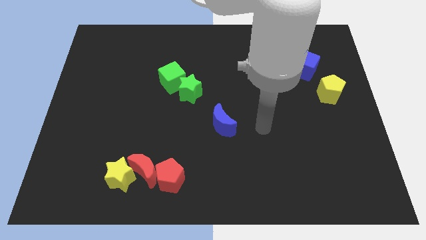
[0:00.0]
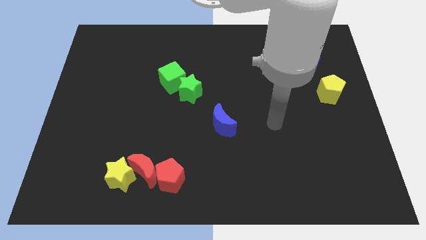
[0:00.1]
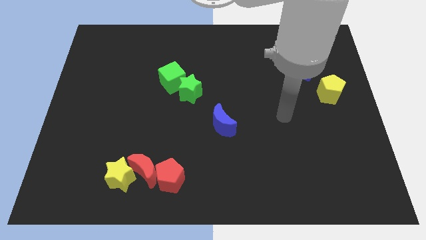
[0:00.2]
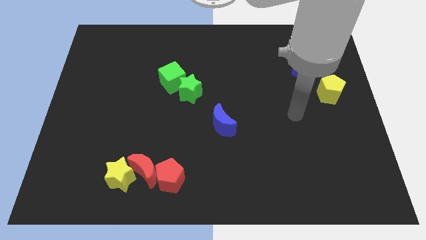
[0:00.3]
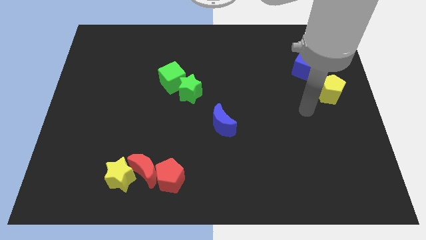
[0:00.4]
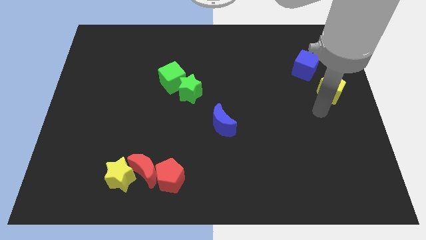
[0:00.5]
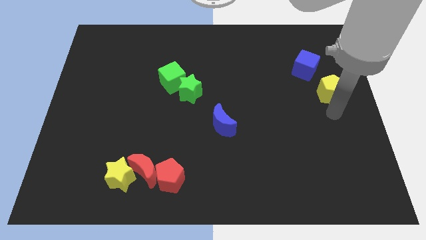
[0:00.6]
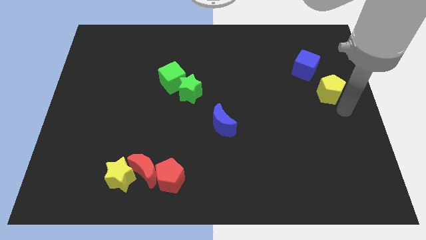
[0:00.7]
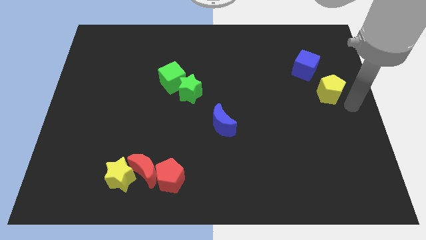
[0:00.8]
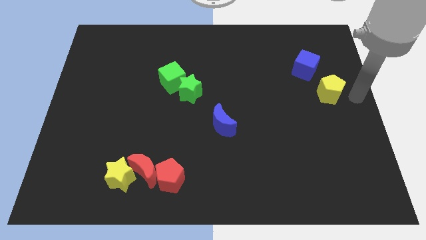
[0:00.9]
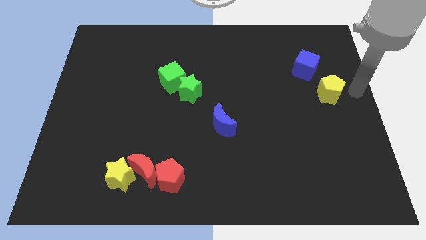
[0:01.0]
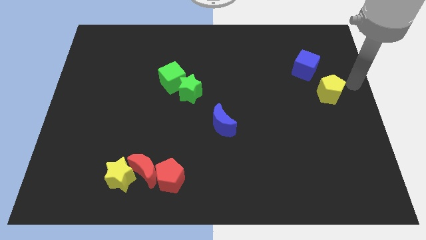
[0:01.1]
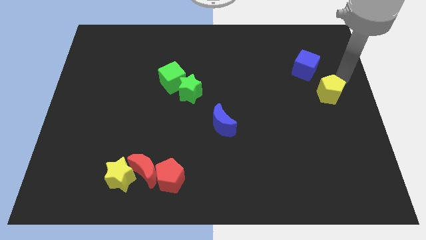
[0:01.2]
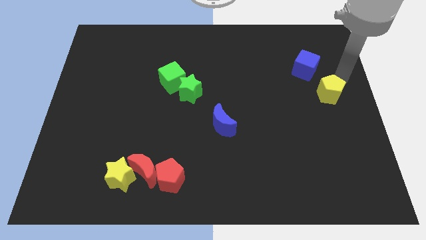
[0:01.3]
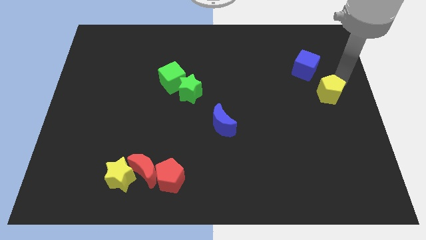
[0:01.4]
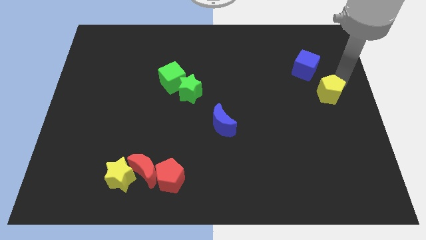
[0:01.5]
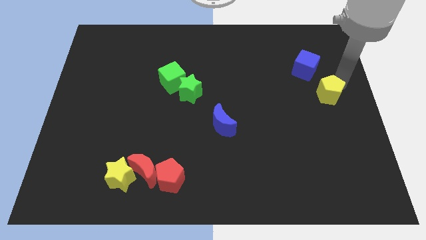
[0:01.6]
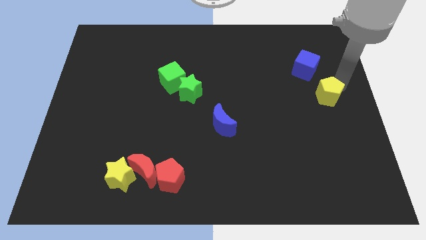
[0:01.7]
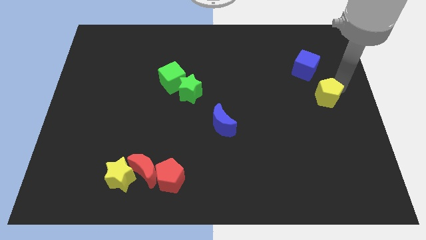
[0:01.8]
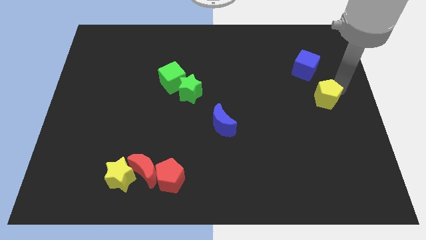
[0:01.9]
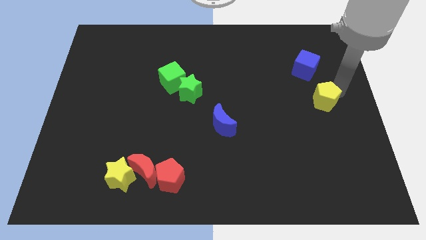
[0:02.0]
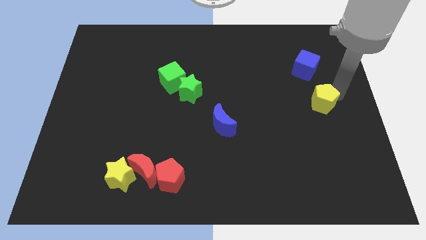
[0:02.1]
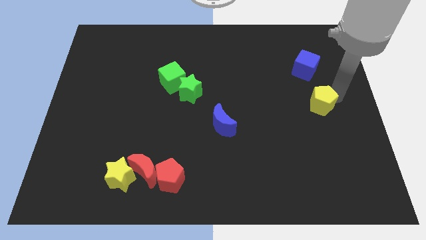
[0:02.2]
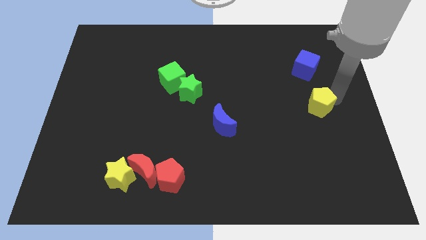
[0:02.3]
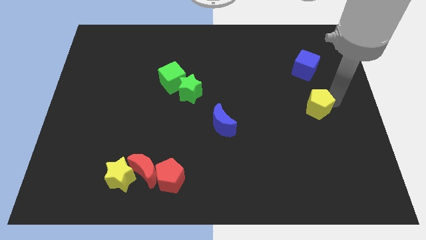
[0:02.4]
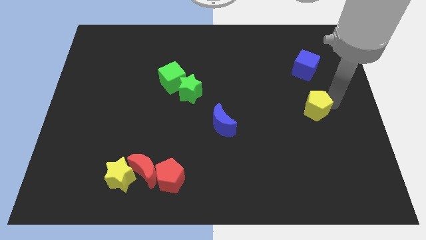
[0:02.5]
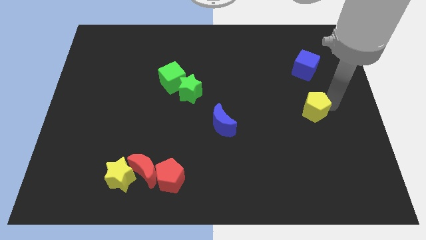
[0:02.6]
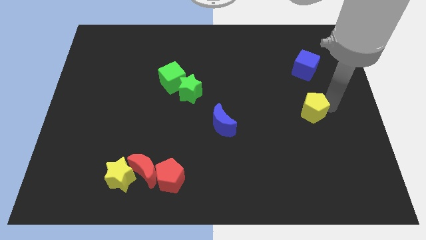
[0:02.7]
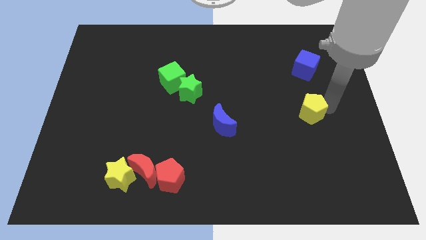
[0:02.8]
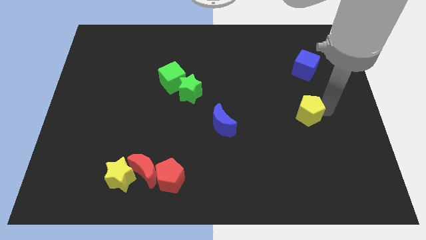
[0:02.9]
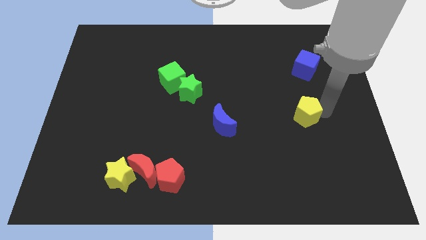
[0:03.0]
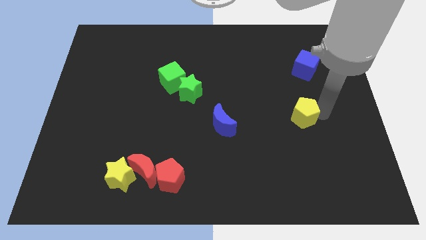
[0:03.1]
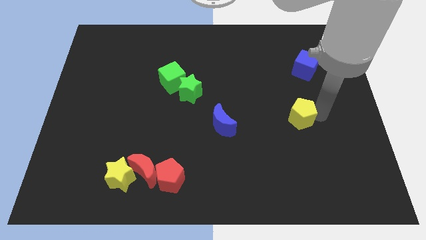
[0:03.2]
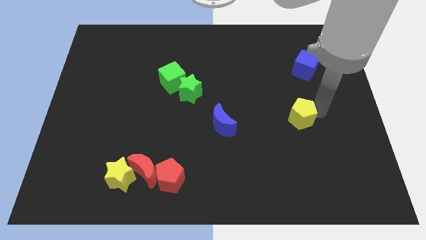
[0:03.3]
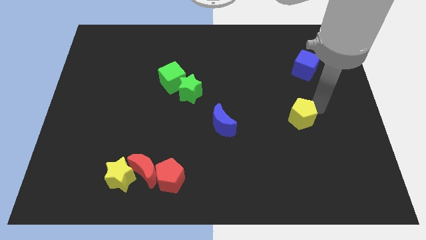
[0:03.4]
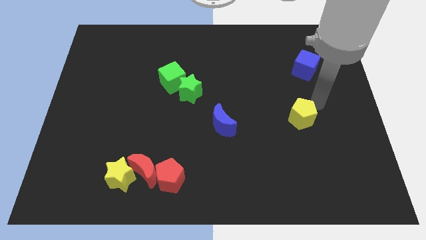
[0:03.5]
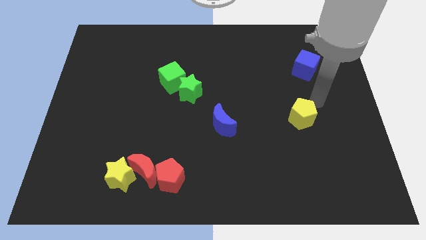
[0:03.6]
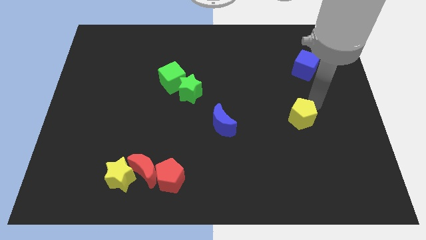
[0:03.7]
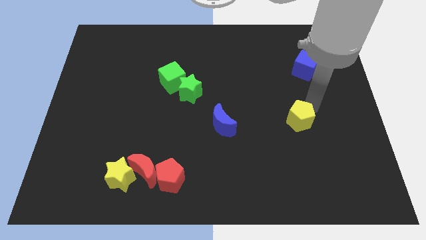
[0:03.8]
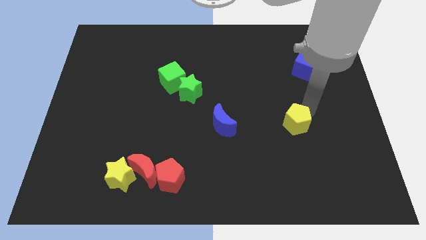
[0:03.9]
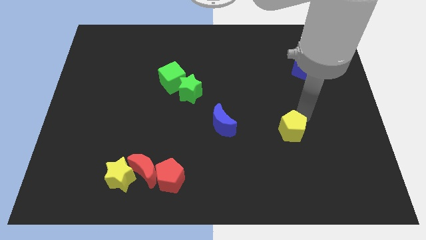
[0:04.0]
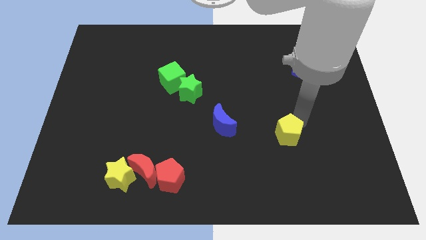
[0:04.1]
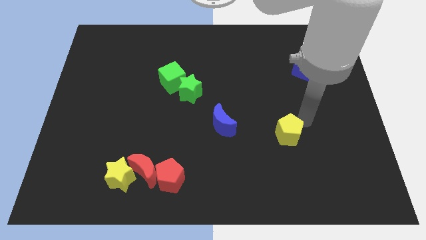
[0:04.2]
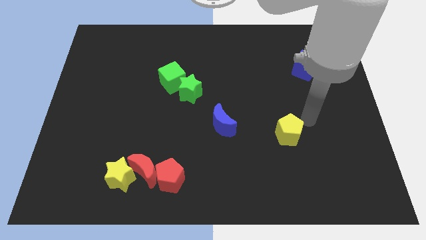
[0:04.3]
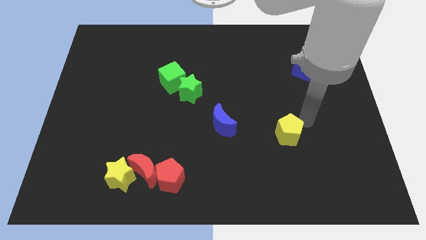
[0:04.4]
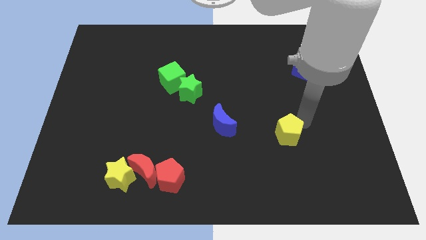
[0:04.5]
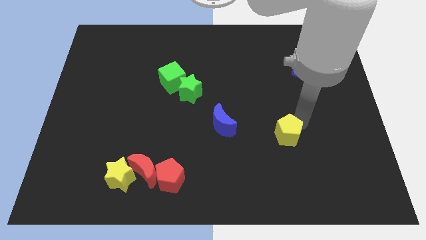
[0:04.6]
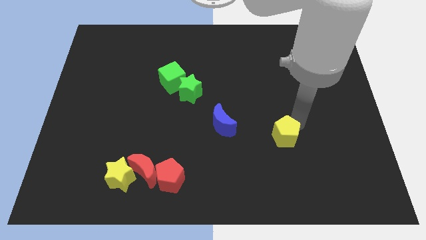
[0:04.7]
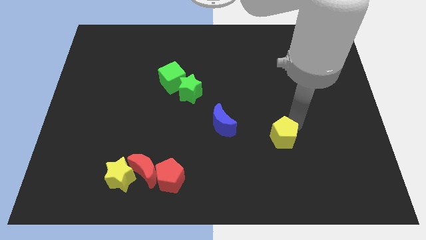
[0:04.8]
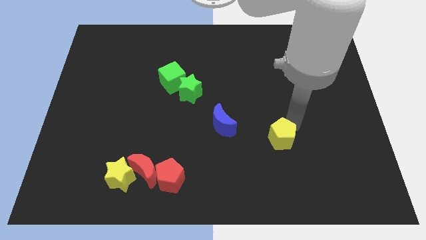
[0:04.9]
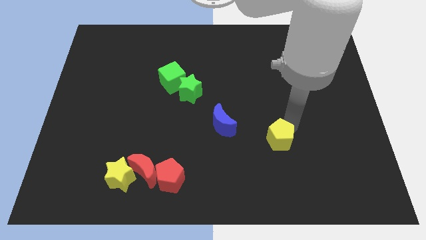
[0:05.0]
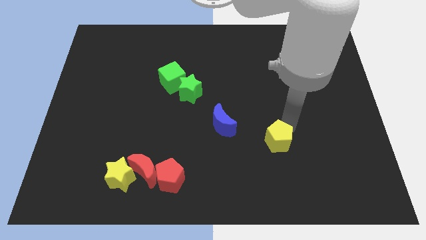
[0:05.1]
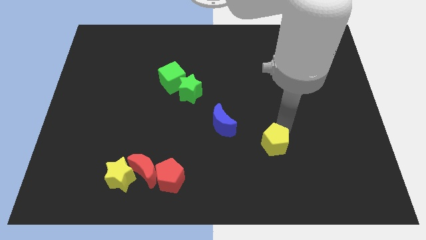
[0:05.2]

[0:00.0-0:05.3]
slide the yellow pentagon diagonally down and left

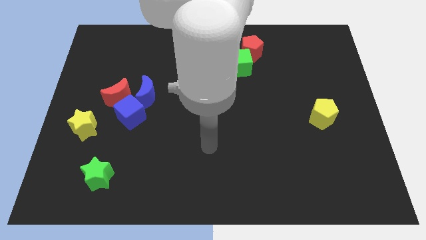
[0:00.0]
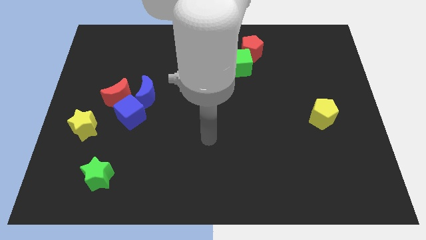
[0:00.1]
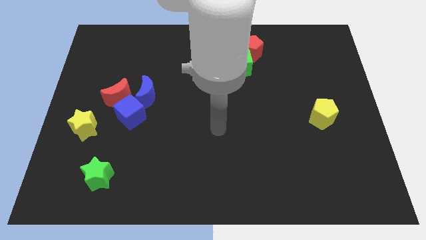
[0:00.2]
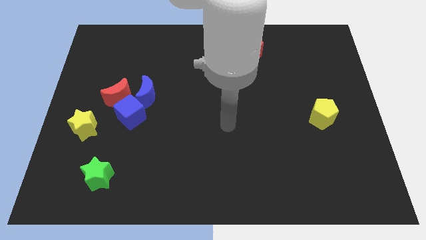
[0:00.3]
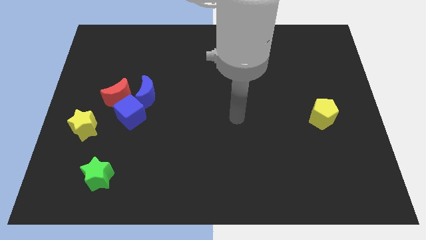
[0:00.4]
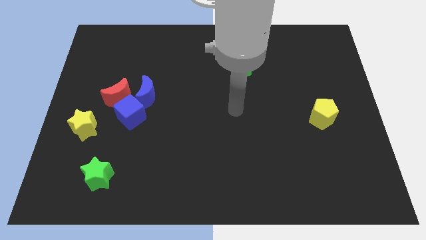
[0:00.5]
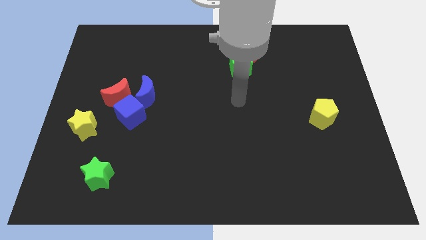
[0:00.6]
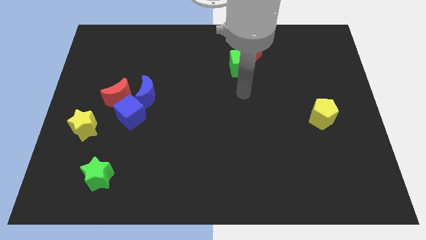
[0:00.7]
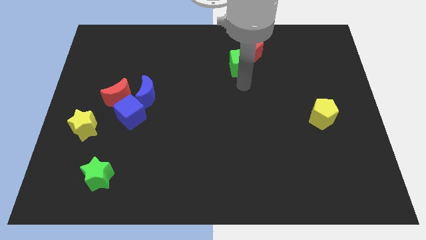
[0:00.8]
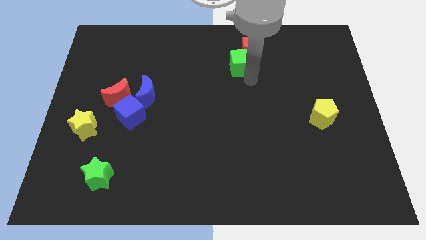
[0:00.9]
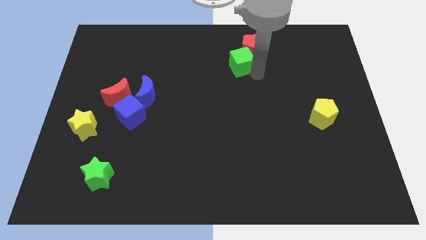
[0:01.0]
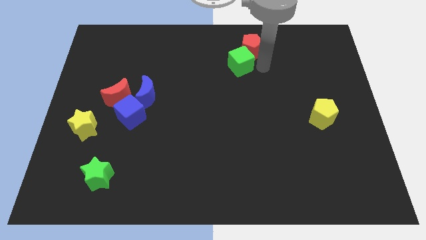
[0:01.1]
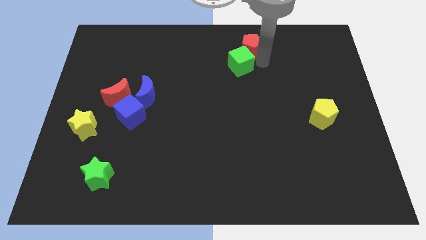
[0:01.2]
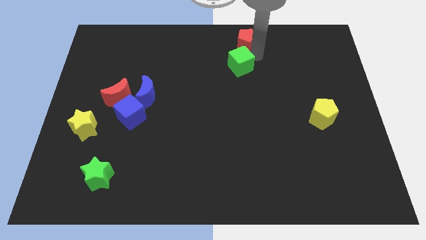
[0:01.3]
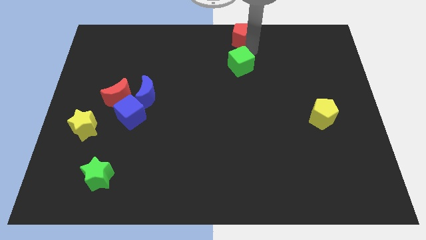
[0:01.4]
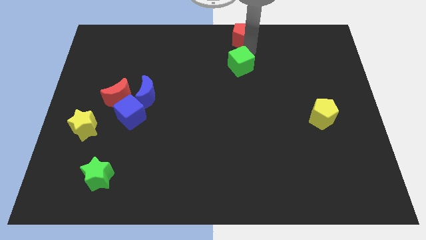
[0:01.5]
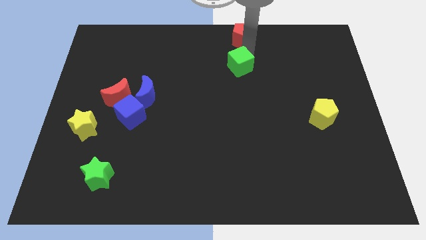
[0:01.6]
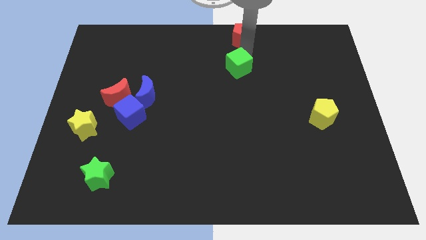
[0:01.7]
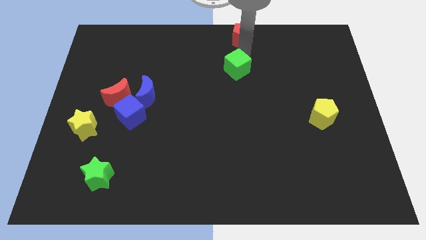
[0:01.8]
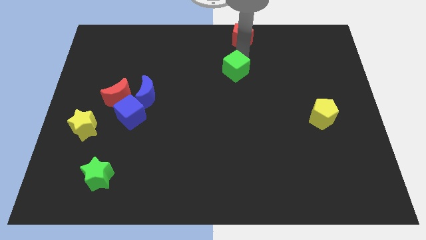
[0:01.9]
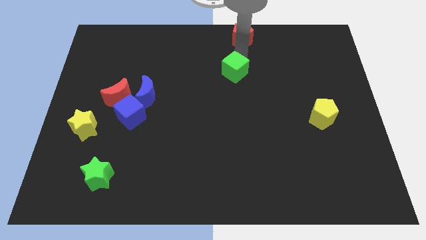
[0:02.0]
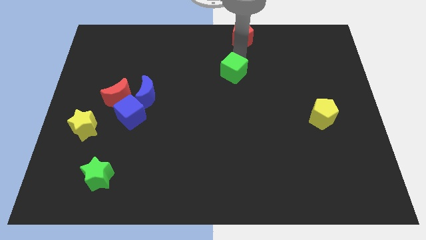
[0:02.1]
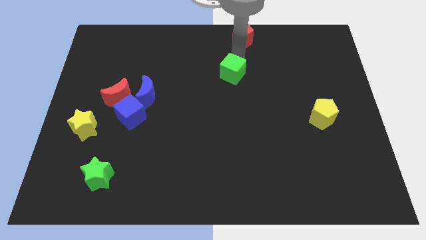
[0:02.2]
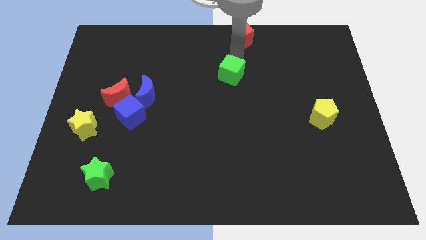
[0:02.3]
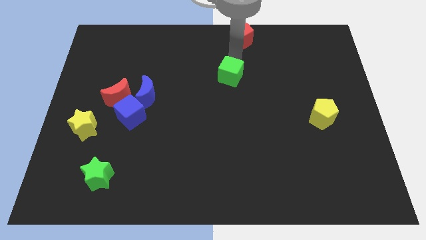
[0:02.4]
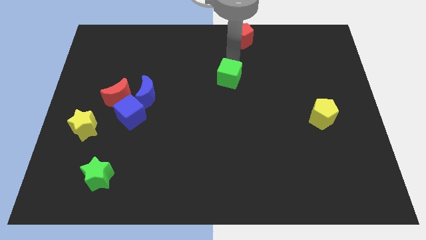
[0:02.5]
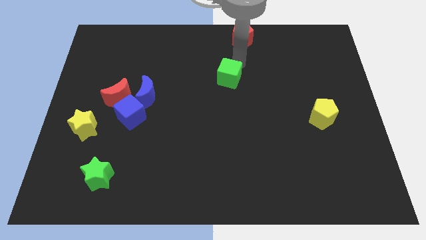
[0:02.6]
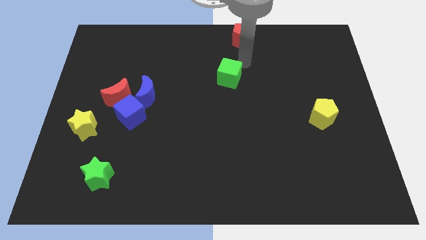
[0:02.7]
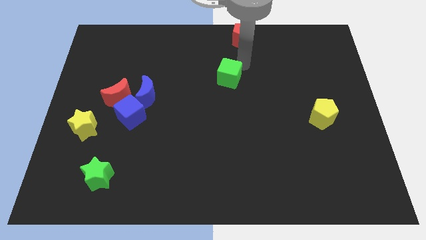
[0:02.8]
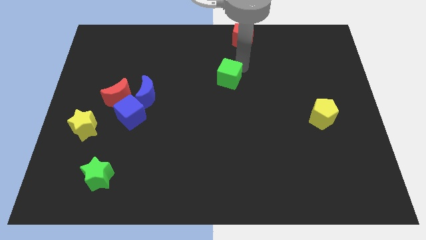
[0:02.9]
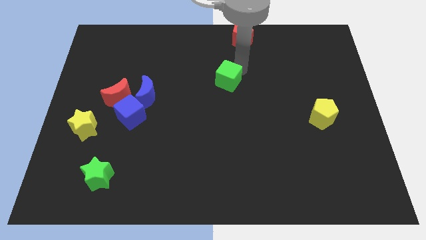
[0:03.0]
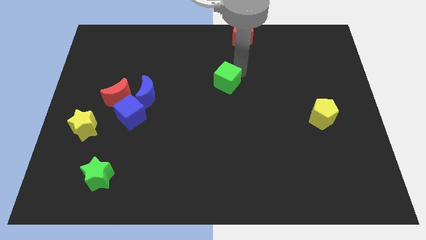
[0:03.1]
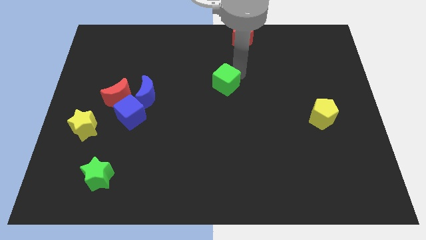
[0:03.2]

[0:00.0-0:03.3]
slightly move the green cube downwards and then to the left
